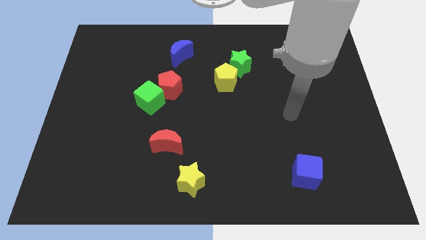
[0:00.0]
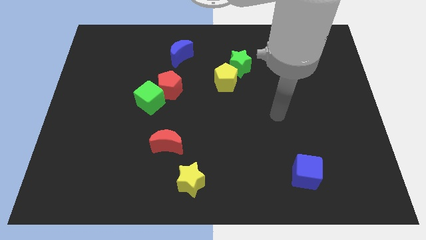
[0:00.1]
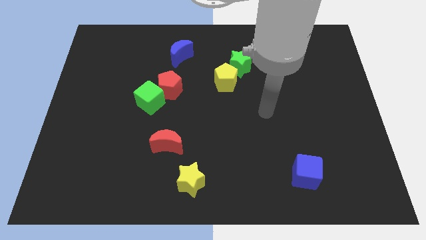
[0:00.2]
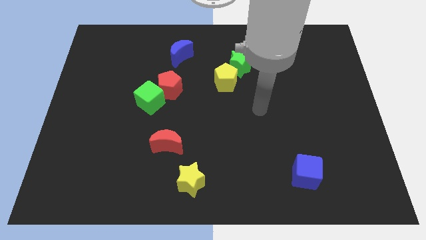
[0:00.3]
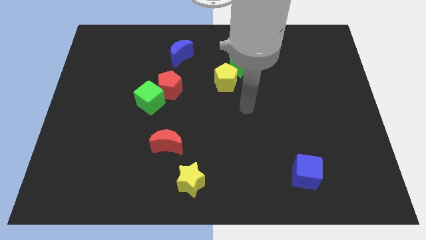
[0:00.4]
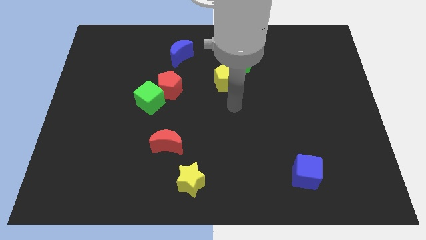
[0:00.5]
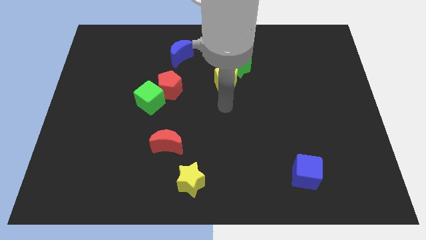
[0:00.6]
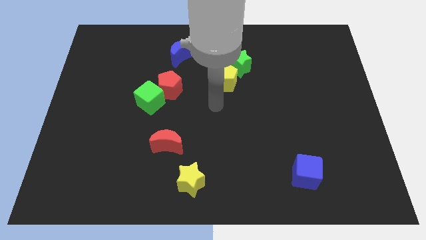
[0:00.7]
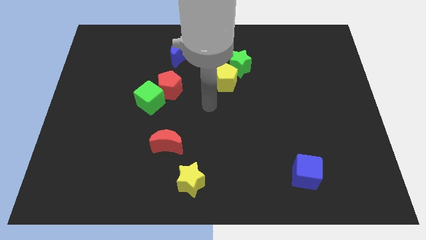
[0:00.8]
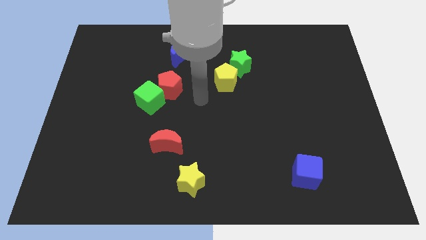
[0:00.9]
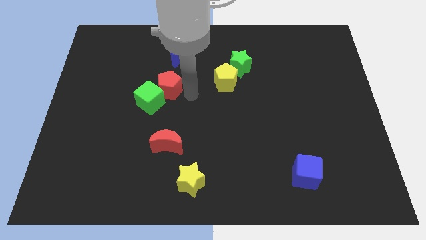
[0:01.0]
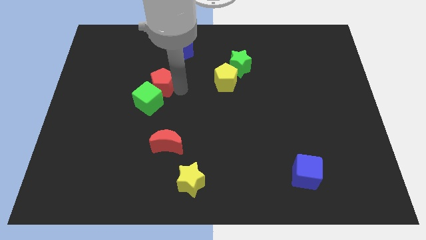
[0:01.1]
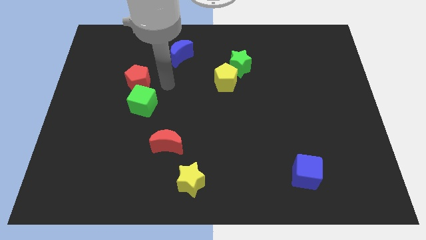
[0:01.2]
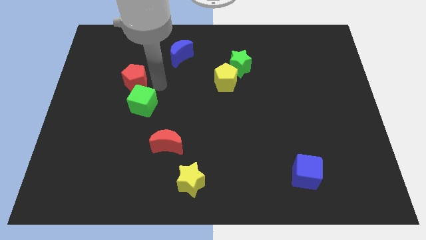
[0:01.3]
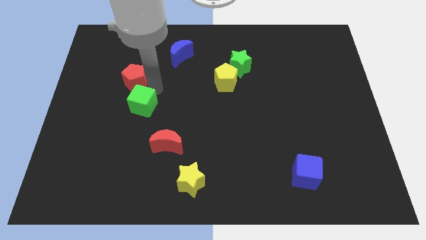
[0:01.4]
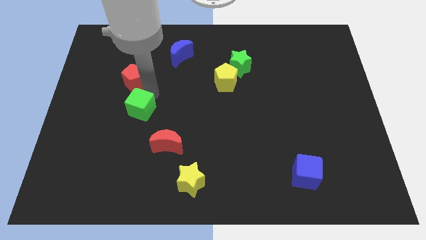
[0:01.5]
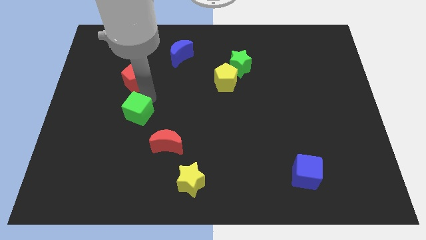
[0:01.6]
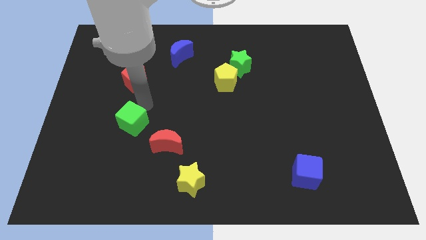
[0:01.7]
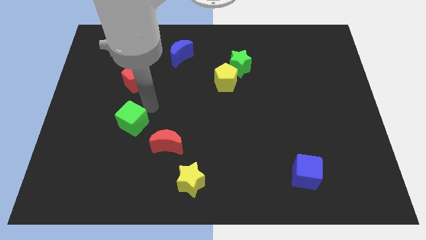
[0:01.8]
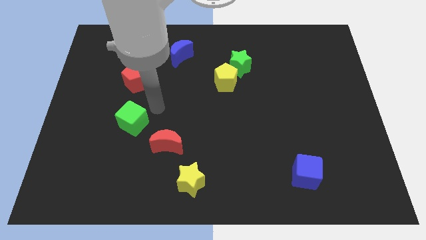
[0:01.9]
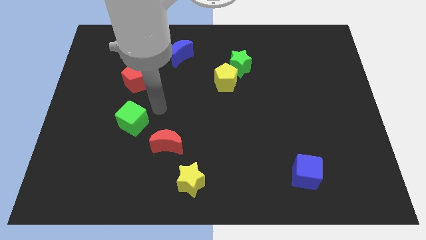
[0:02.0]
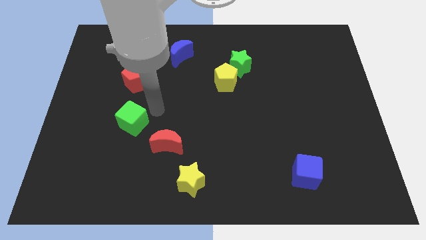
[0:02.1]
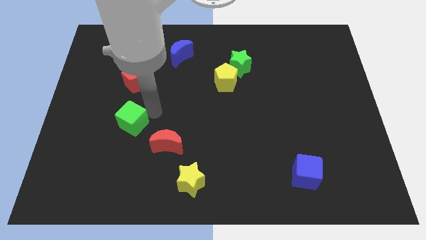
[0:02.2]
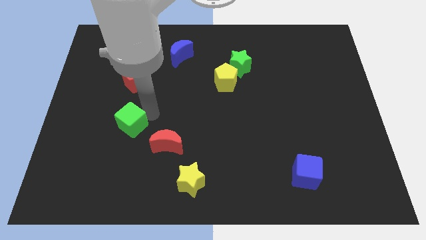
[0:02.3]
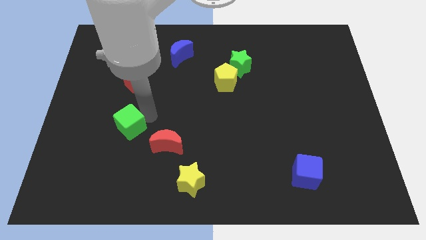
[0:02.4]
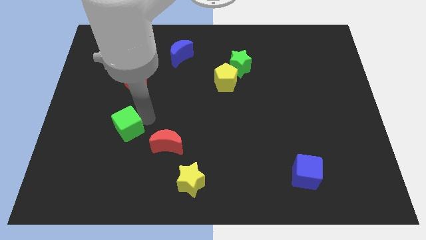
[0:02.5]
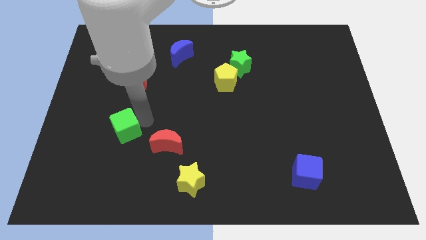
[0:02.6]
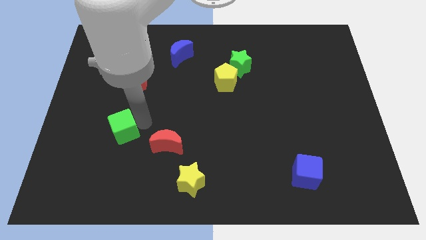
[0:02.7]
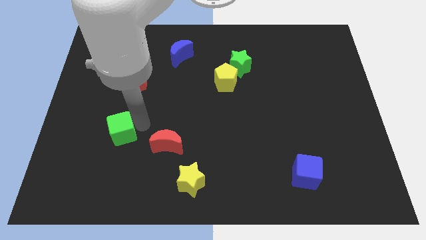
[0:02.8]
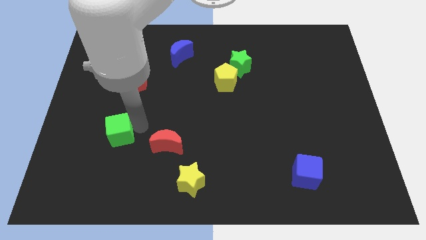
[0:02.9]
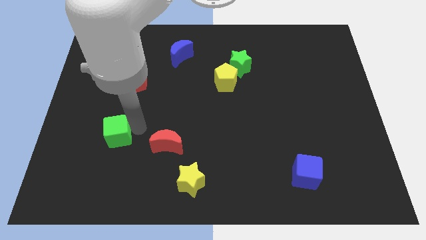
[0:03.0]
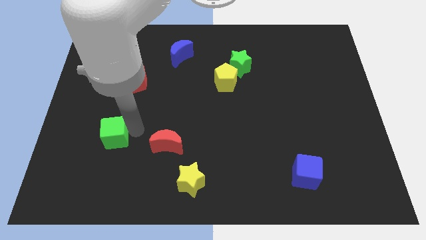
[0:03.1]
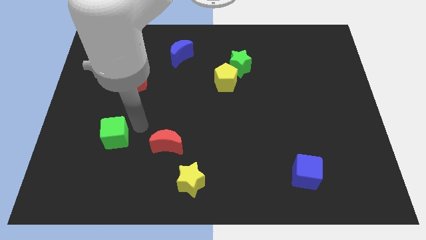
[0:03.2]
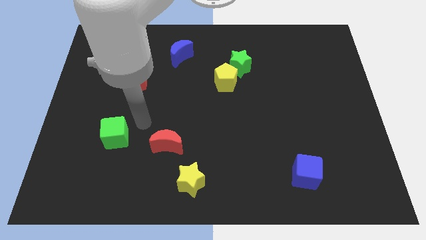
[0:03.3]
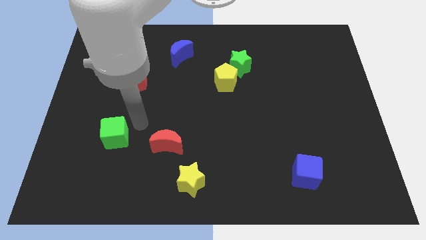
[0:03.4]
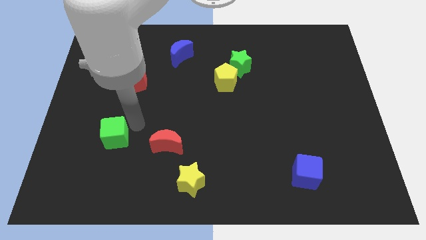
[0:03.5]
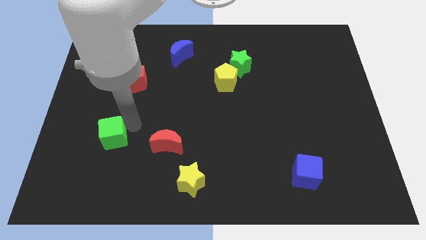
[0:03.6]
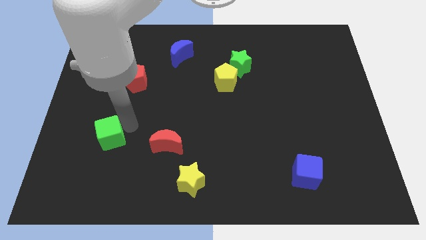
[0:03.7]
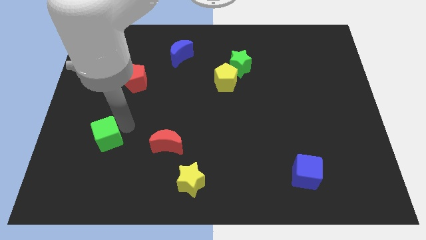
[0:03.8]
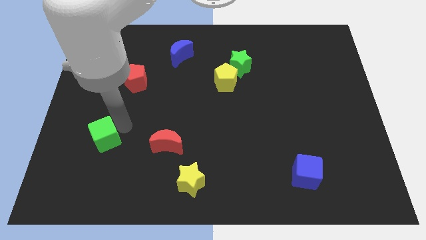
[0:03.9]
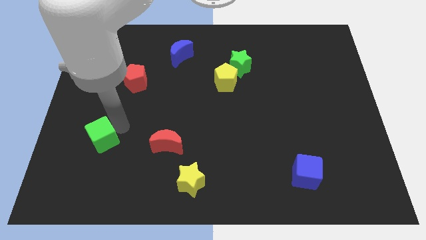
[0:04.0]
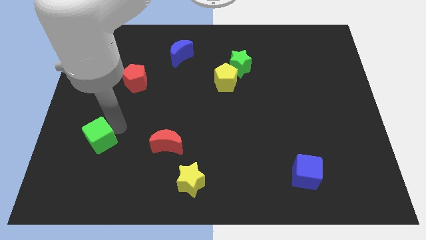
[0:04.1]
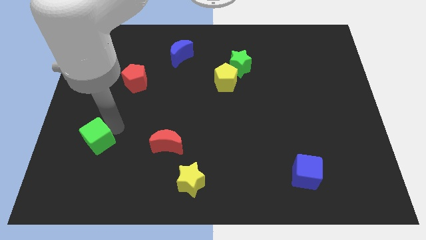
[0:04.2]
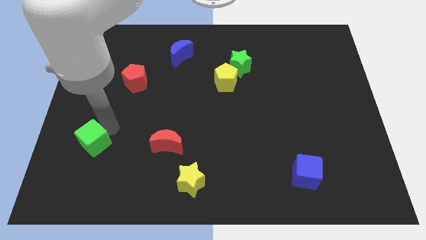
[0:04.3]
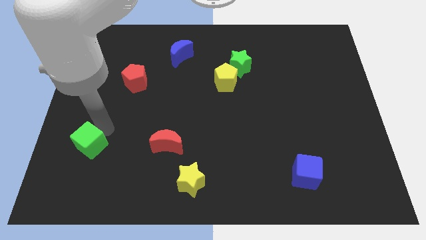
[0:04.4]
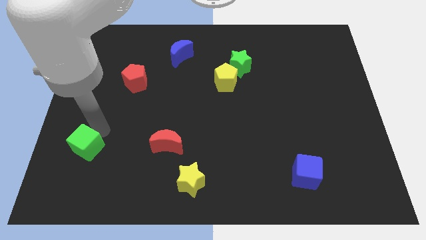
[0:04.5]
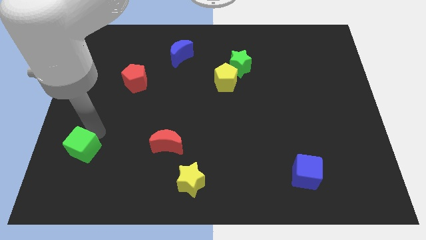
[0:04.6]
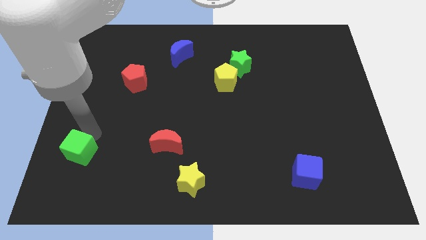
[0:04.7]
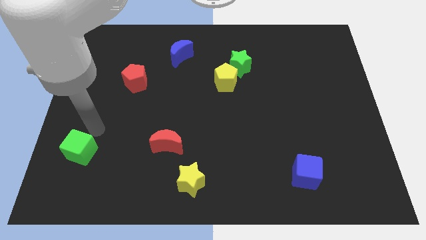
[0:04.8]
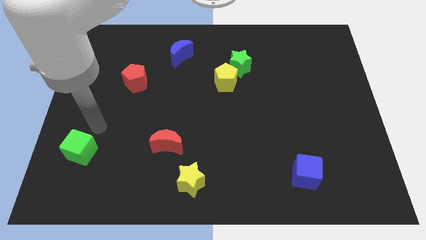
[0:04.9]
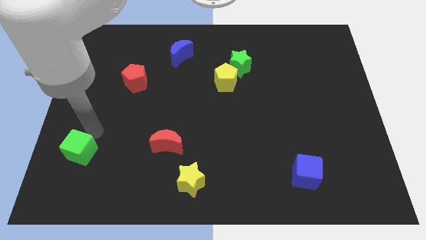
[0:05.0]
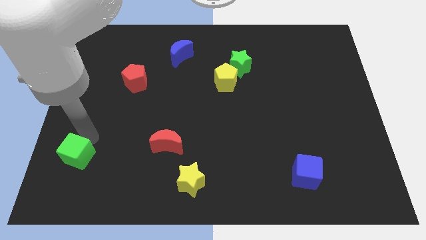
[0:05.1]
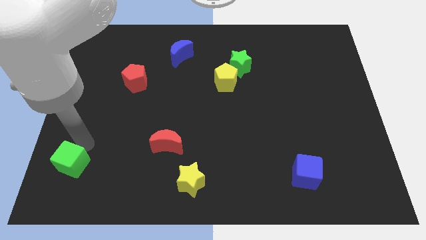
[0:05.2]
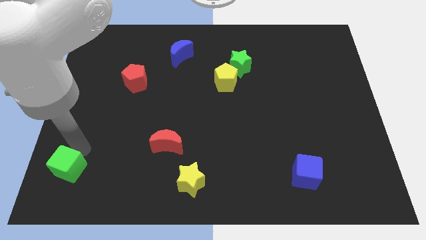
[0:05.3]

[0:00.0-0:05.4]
move the green cube to the bottom left
